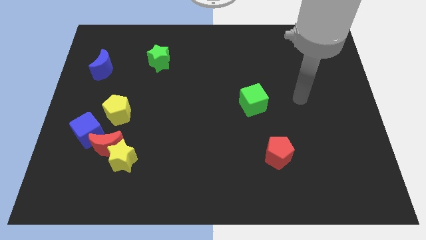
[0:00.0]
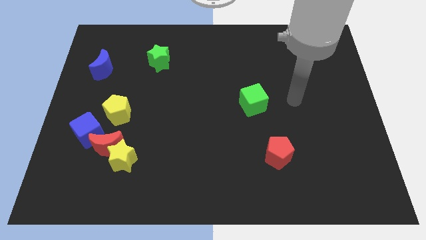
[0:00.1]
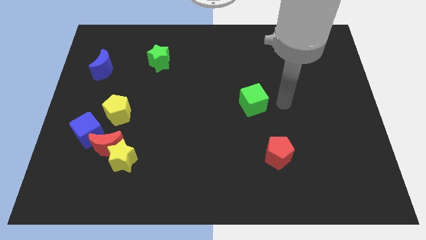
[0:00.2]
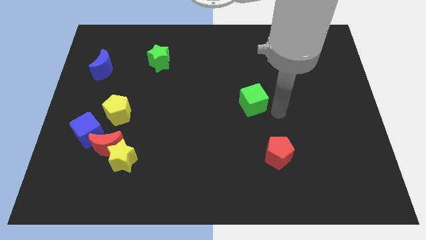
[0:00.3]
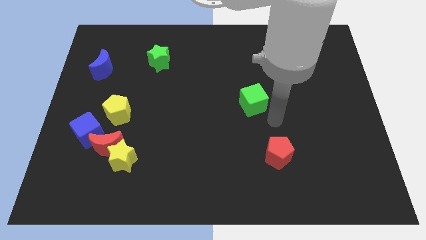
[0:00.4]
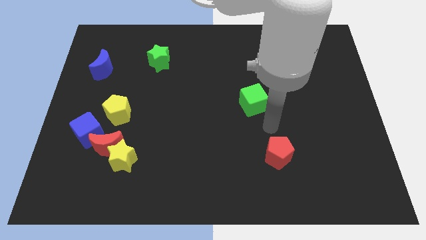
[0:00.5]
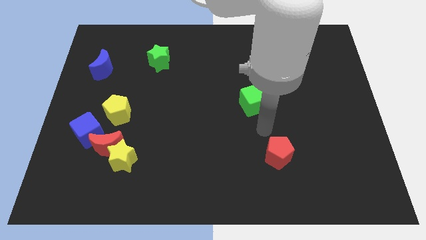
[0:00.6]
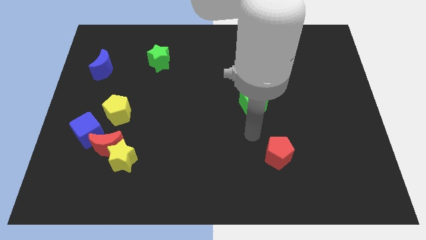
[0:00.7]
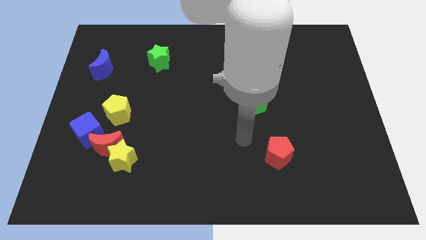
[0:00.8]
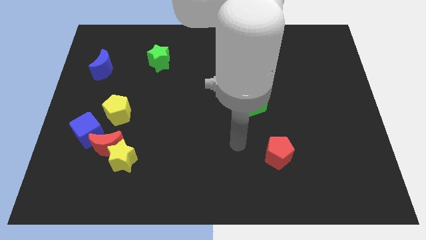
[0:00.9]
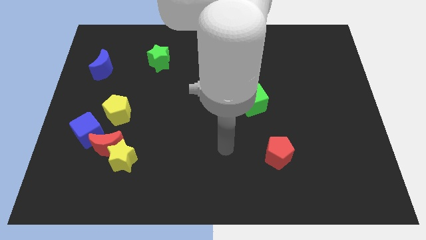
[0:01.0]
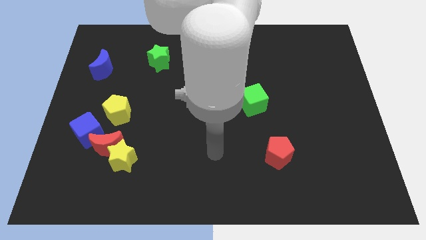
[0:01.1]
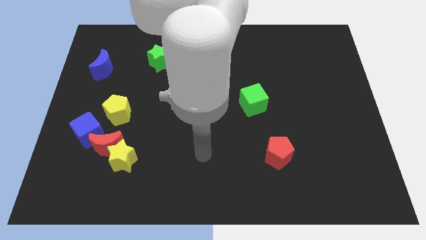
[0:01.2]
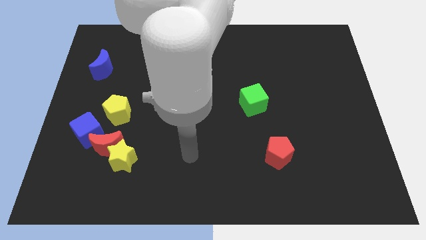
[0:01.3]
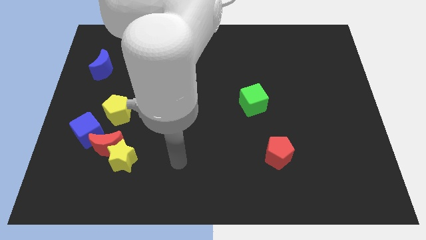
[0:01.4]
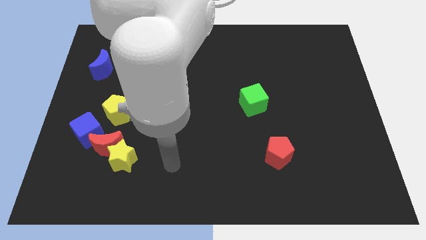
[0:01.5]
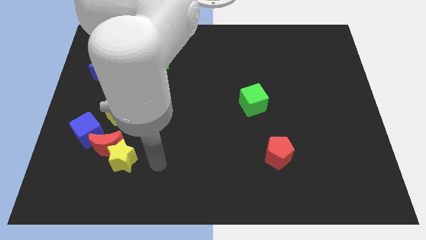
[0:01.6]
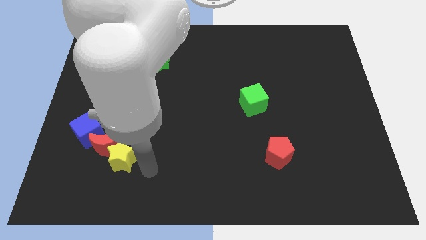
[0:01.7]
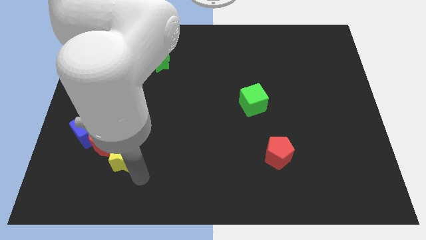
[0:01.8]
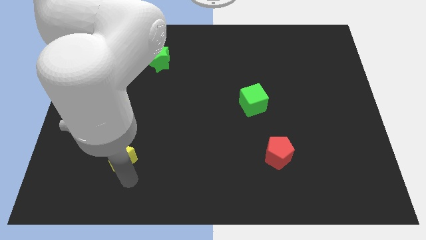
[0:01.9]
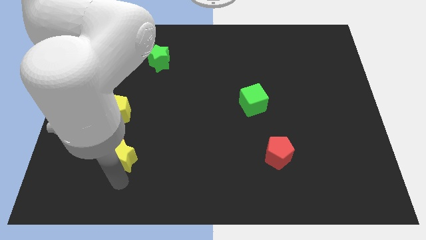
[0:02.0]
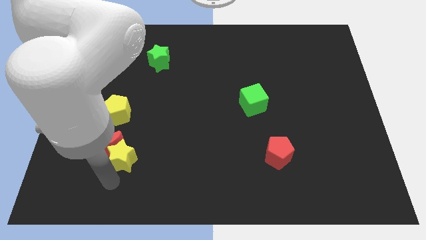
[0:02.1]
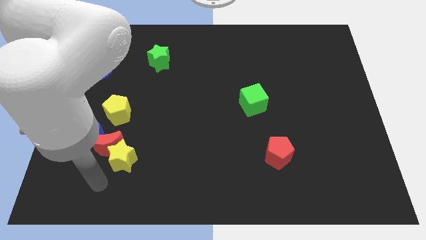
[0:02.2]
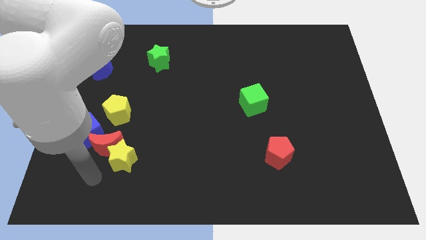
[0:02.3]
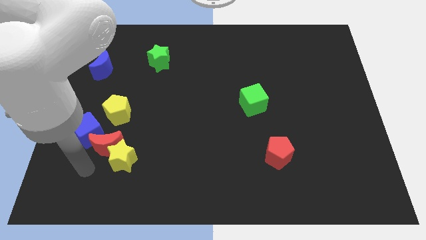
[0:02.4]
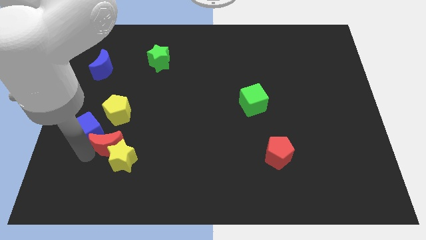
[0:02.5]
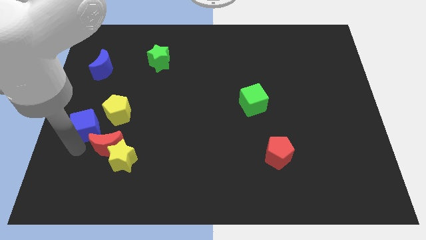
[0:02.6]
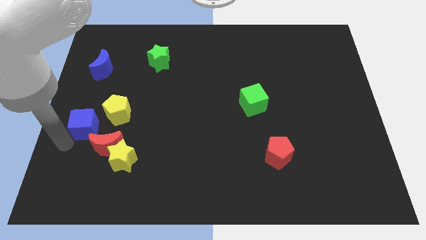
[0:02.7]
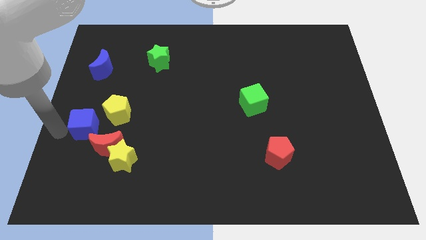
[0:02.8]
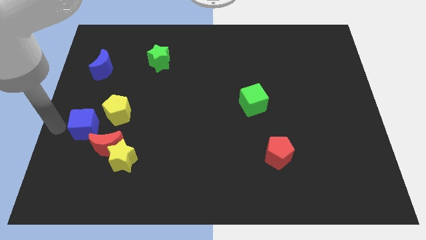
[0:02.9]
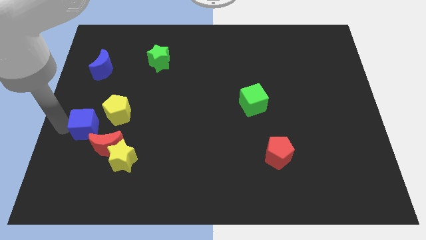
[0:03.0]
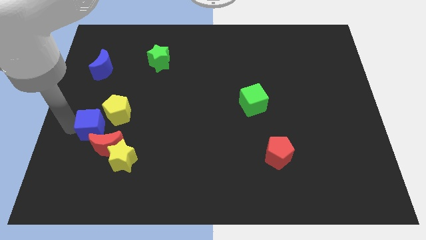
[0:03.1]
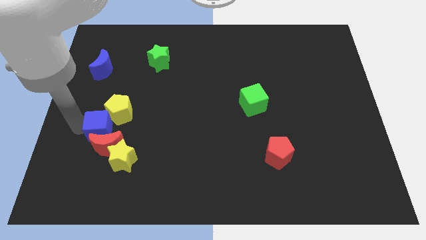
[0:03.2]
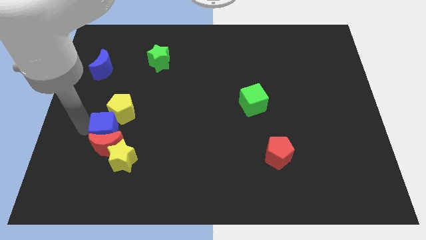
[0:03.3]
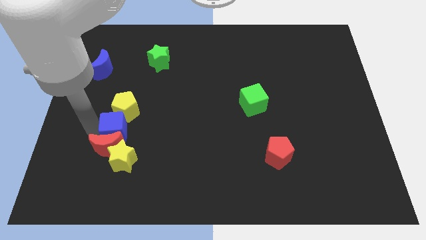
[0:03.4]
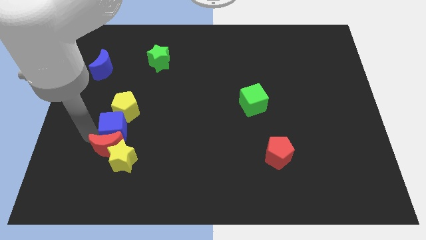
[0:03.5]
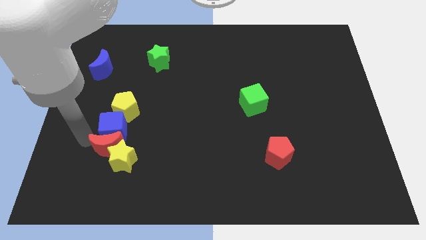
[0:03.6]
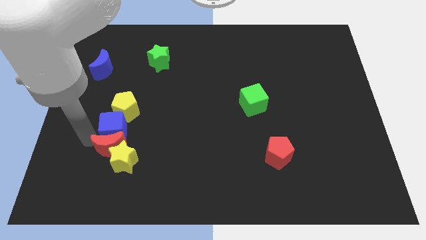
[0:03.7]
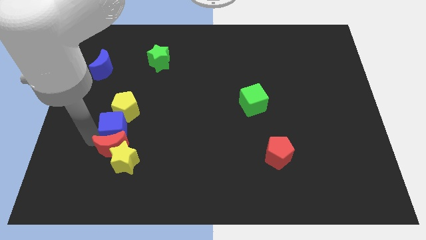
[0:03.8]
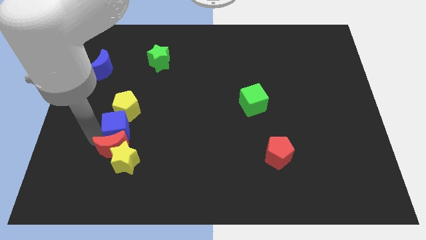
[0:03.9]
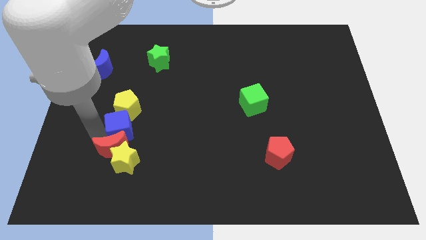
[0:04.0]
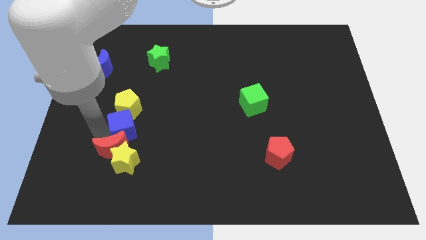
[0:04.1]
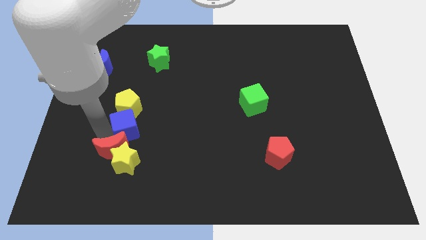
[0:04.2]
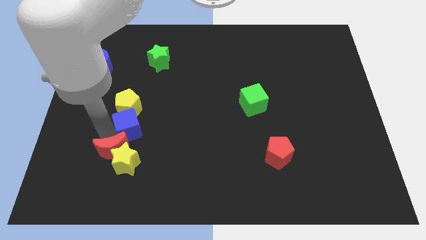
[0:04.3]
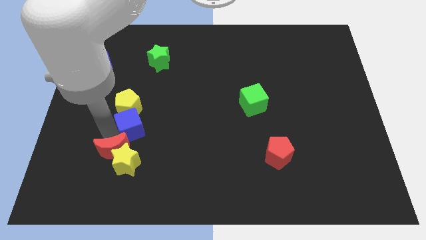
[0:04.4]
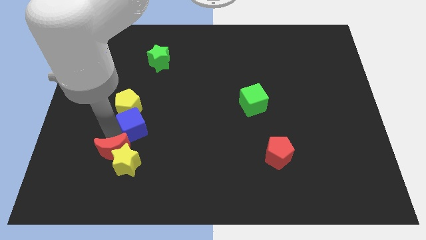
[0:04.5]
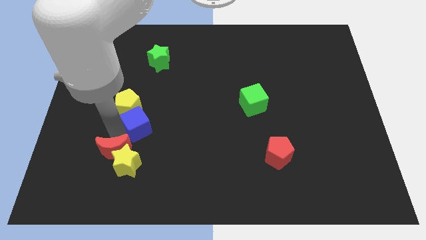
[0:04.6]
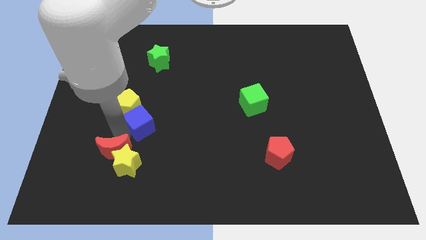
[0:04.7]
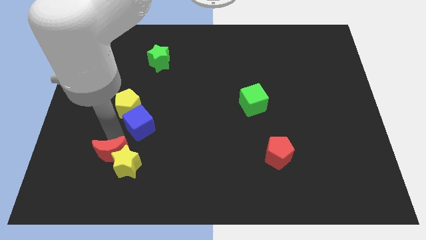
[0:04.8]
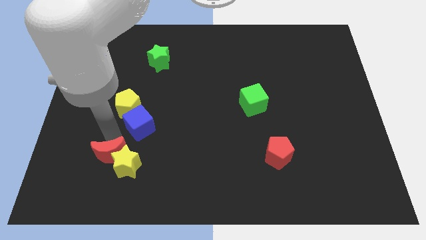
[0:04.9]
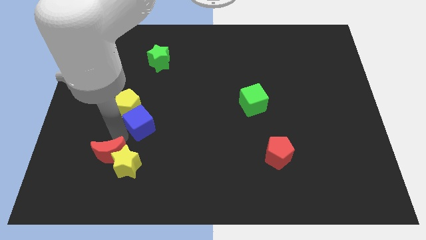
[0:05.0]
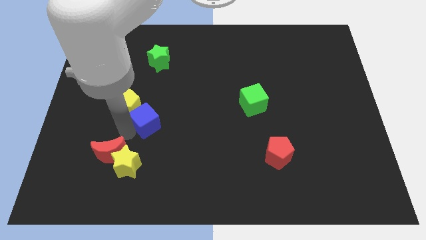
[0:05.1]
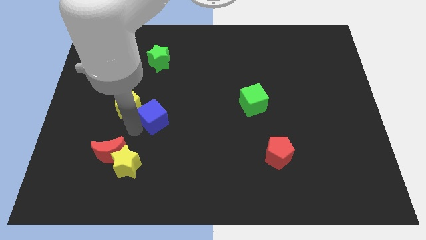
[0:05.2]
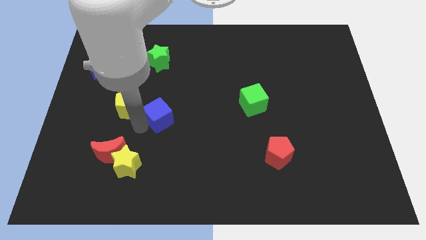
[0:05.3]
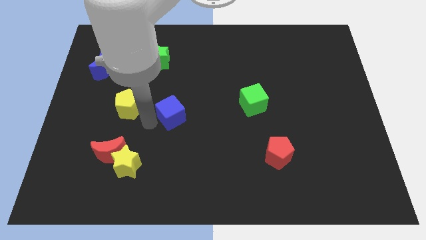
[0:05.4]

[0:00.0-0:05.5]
move the blue cube to the center of the board

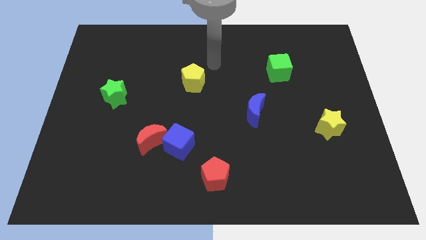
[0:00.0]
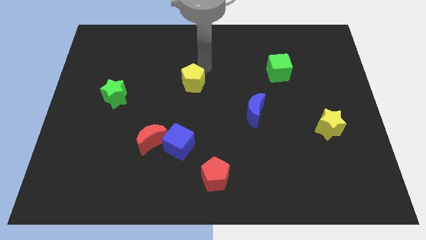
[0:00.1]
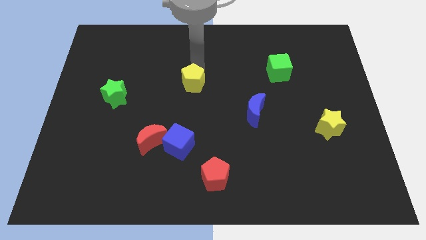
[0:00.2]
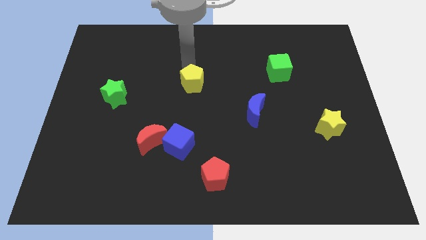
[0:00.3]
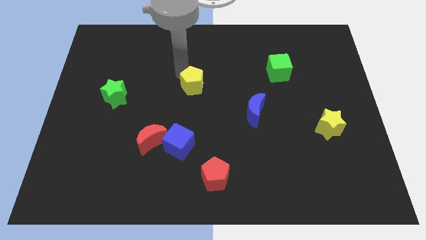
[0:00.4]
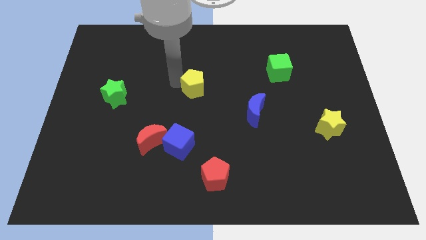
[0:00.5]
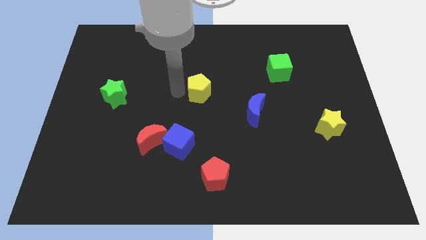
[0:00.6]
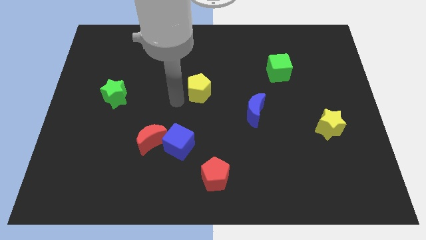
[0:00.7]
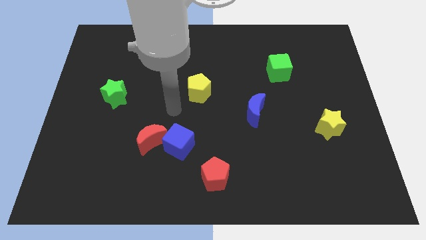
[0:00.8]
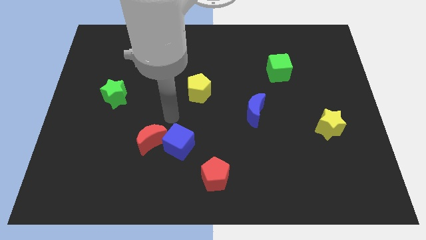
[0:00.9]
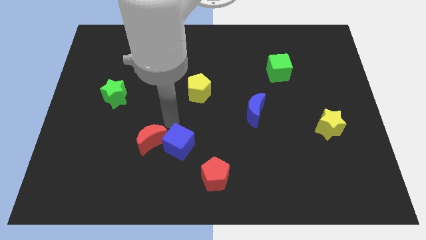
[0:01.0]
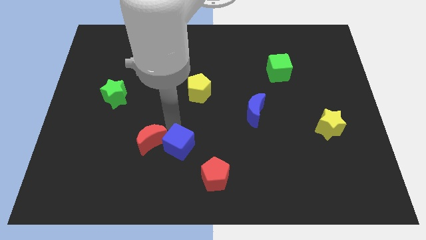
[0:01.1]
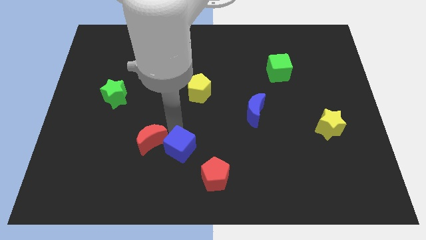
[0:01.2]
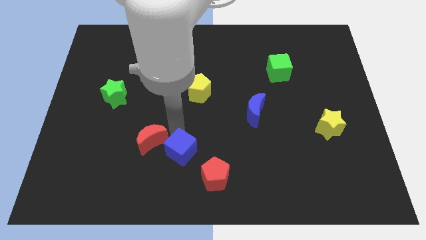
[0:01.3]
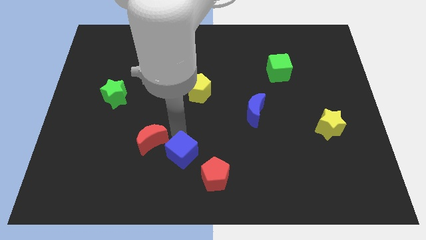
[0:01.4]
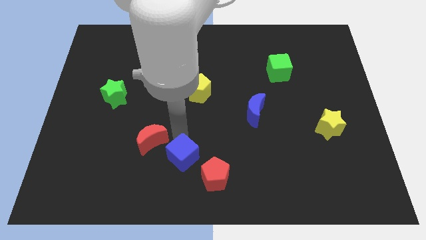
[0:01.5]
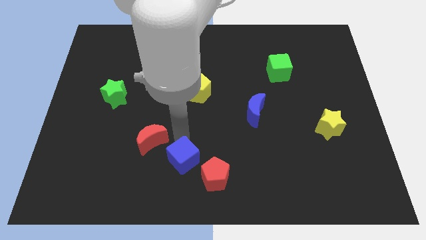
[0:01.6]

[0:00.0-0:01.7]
slide the blue cube to the bottom side
